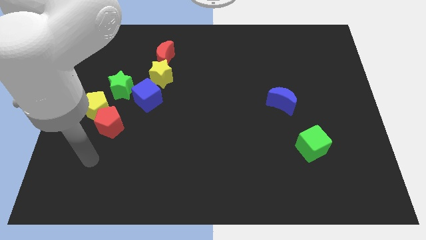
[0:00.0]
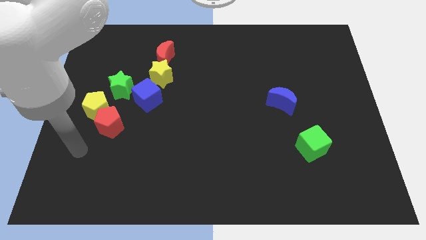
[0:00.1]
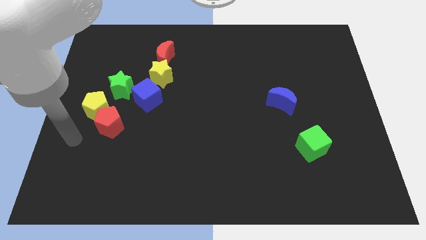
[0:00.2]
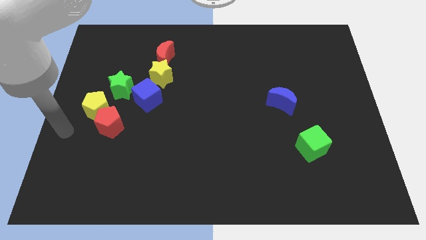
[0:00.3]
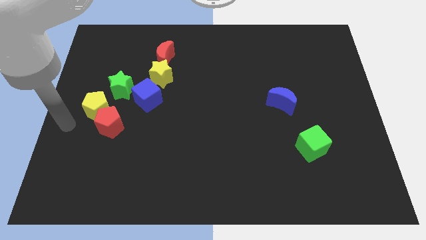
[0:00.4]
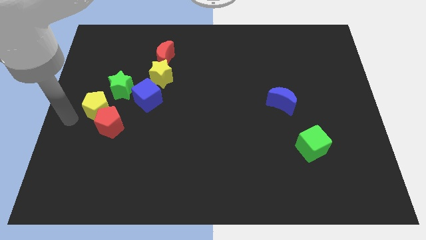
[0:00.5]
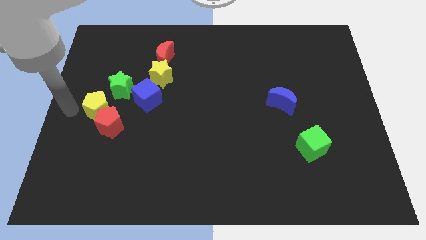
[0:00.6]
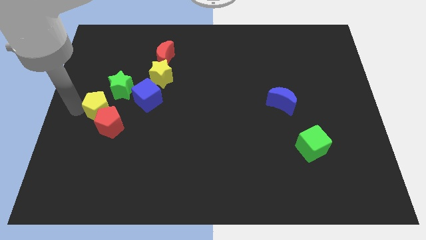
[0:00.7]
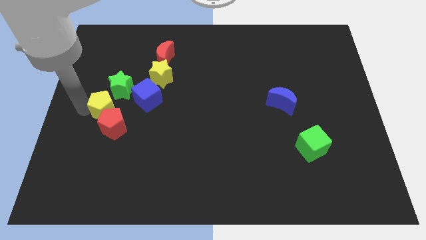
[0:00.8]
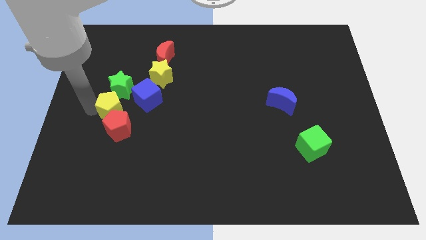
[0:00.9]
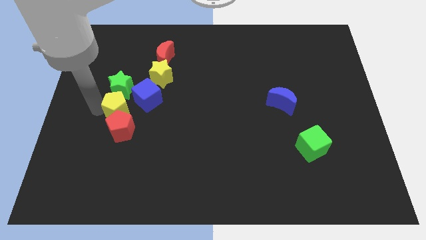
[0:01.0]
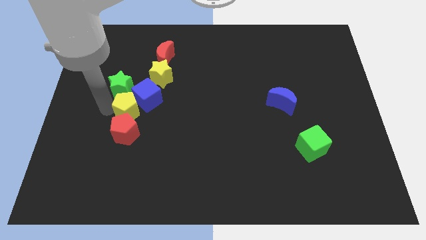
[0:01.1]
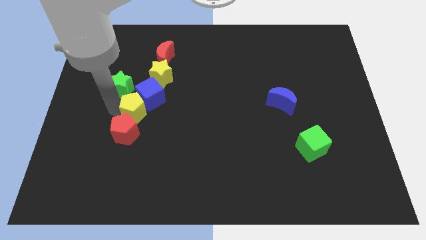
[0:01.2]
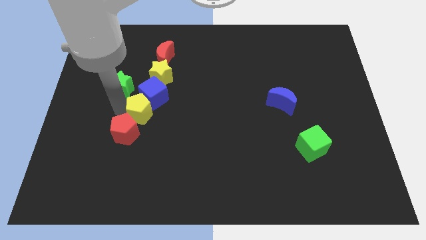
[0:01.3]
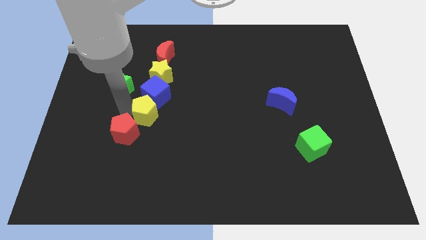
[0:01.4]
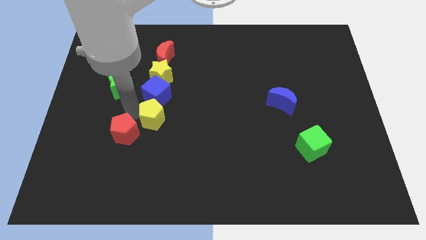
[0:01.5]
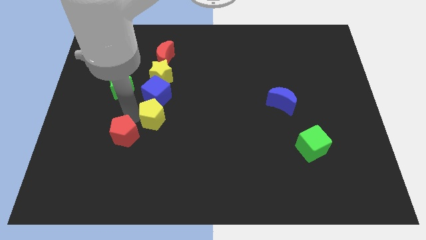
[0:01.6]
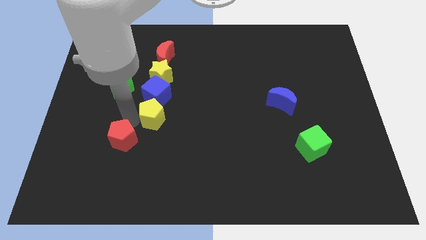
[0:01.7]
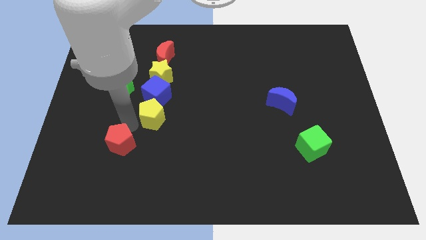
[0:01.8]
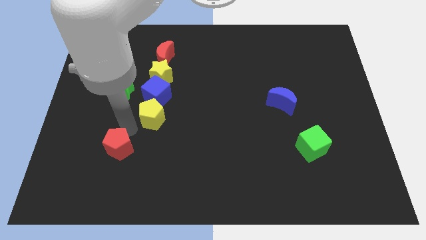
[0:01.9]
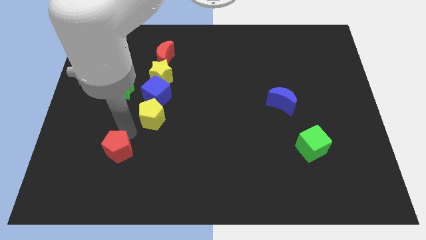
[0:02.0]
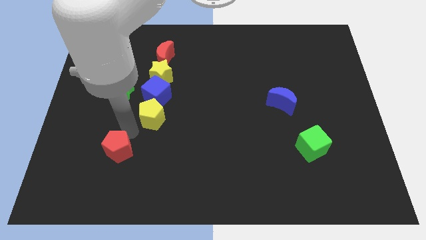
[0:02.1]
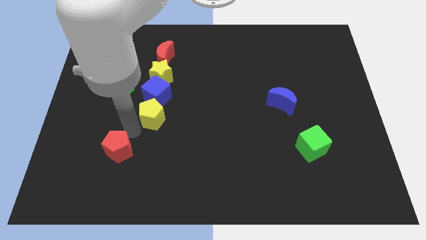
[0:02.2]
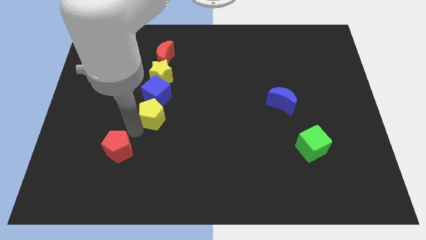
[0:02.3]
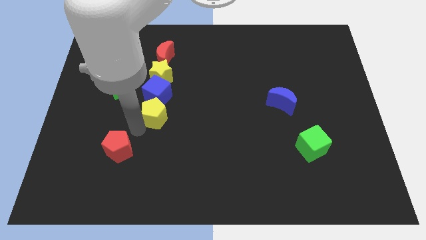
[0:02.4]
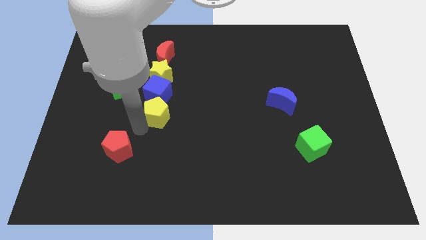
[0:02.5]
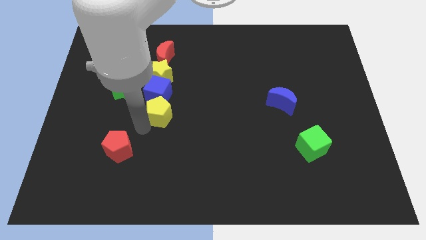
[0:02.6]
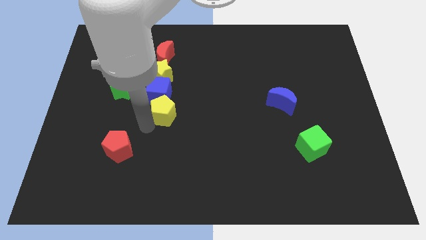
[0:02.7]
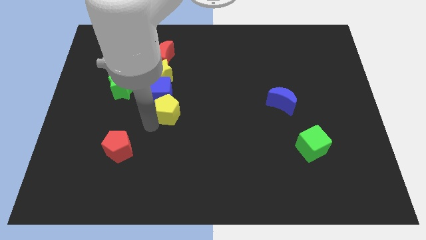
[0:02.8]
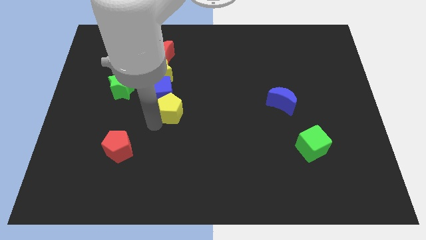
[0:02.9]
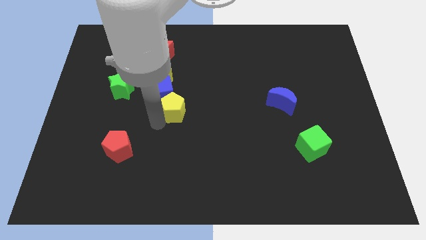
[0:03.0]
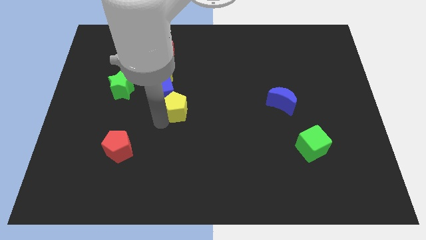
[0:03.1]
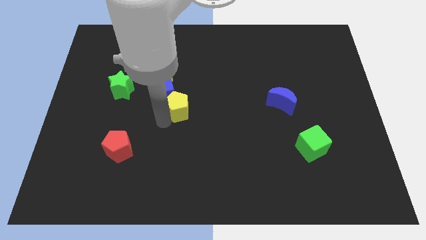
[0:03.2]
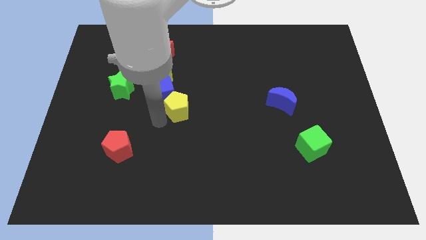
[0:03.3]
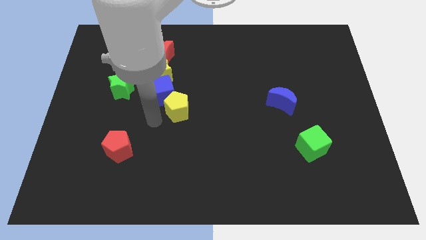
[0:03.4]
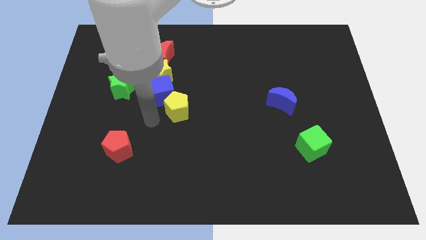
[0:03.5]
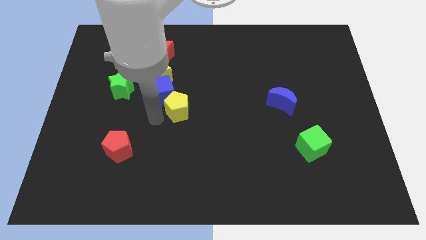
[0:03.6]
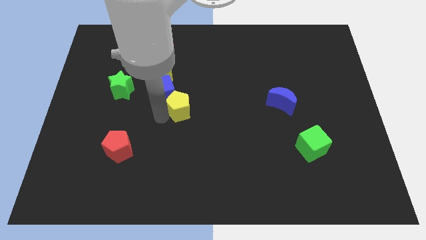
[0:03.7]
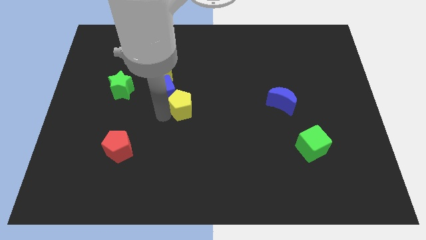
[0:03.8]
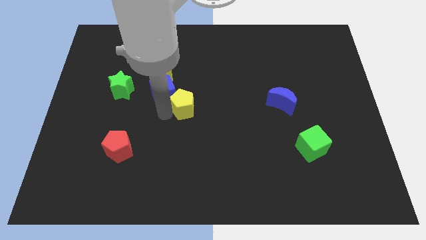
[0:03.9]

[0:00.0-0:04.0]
move the yellow pentagon right

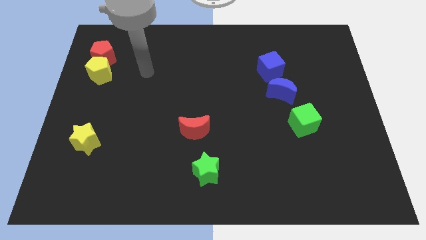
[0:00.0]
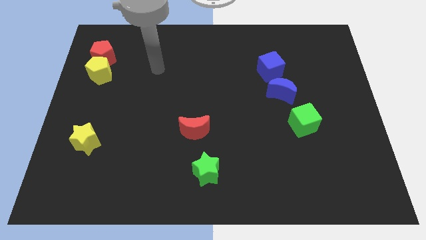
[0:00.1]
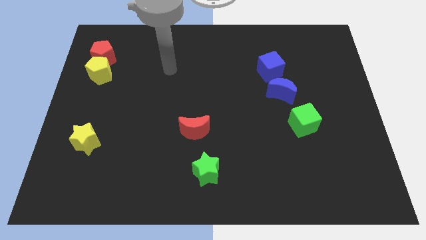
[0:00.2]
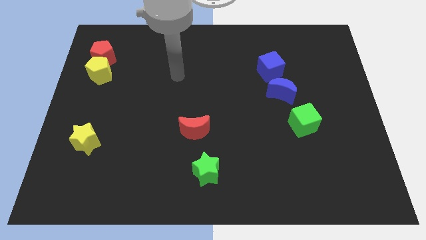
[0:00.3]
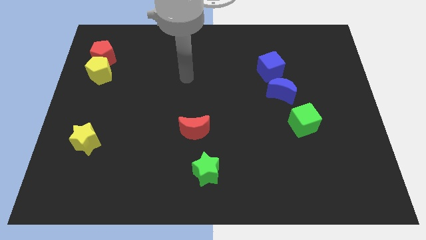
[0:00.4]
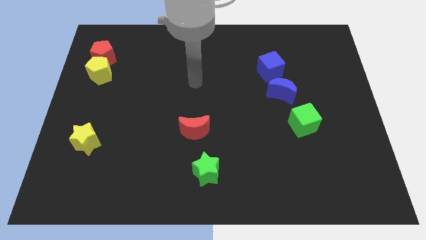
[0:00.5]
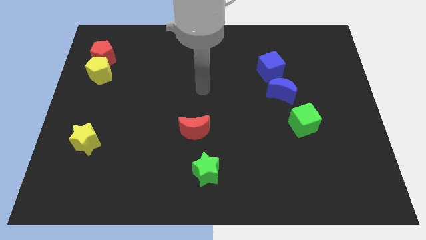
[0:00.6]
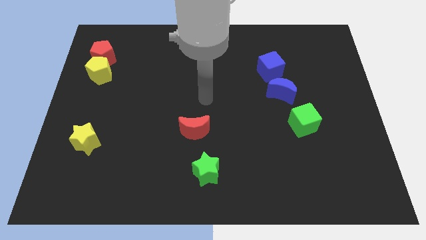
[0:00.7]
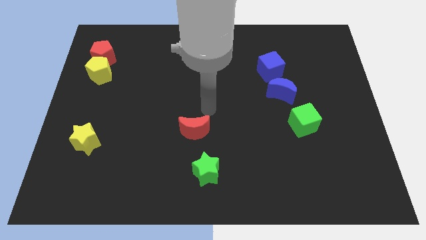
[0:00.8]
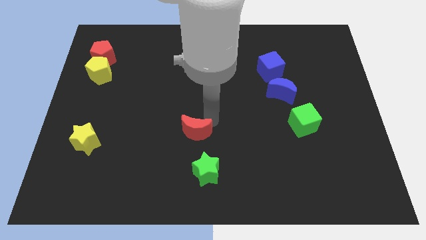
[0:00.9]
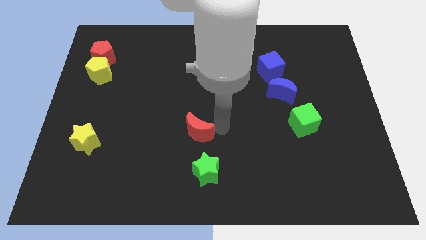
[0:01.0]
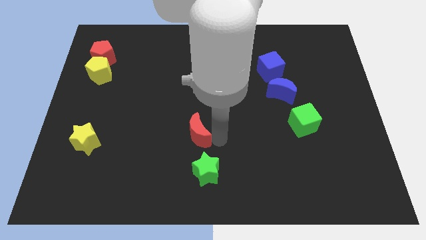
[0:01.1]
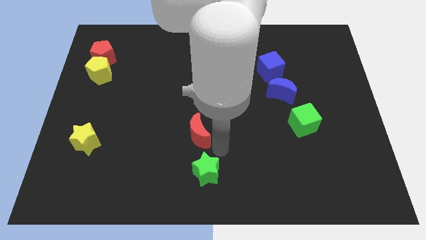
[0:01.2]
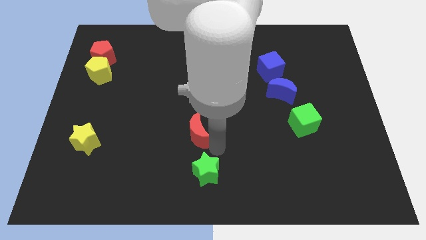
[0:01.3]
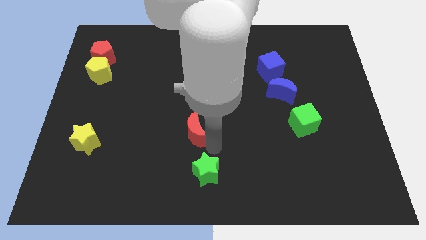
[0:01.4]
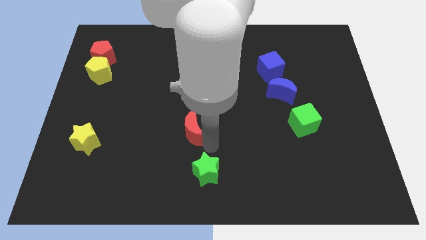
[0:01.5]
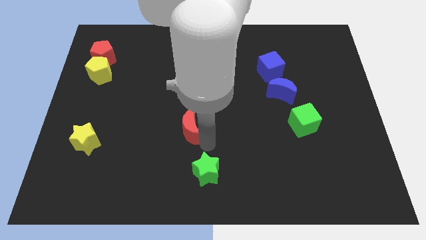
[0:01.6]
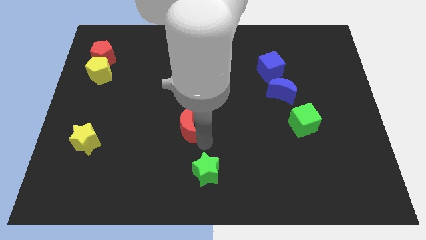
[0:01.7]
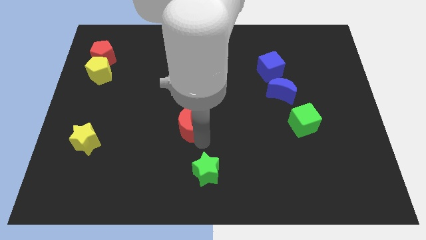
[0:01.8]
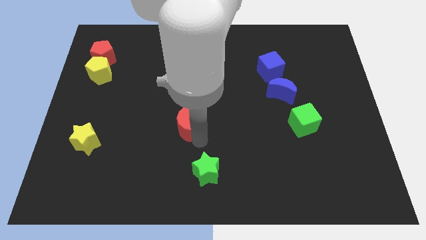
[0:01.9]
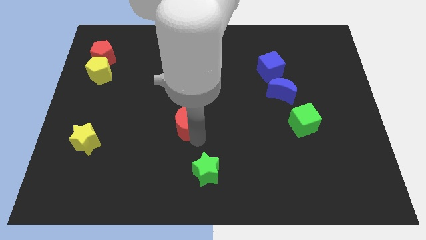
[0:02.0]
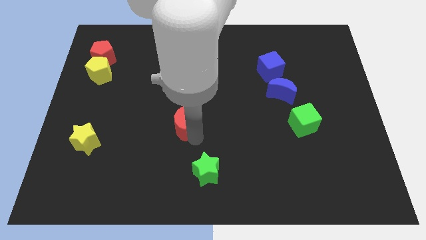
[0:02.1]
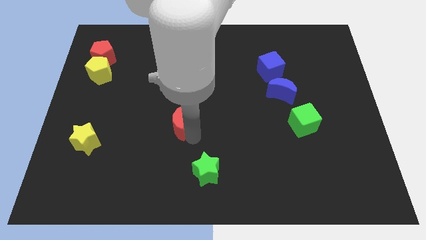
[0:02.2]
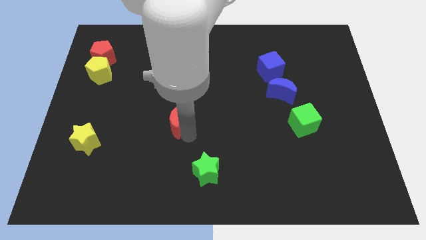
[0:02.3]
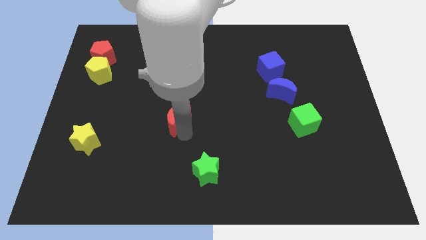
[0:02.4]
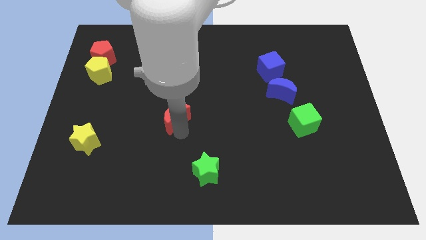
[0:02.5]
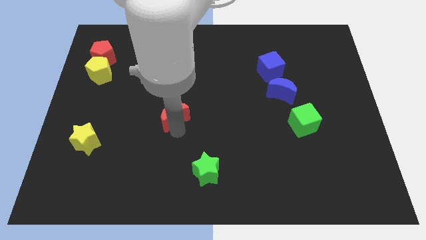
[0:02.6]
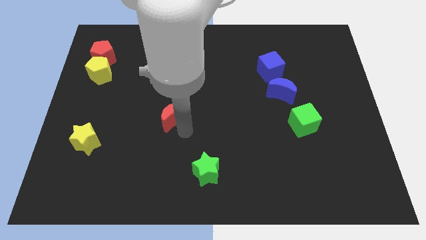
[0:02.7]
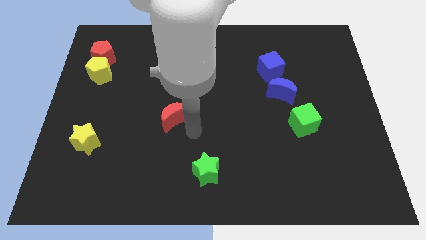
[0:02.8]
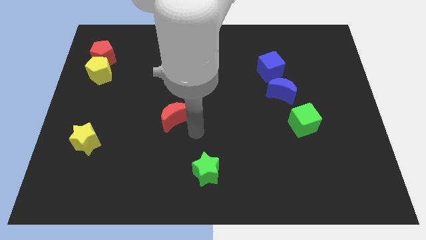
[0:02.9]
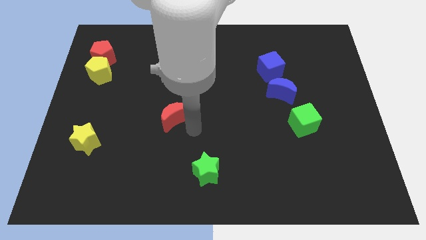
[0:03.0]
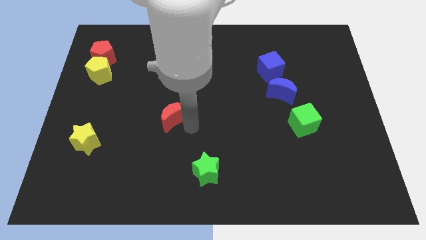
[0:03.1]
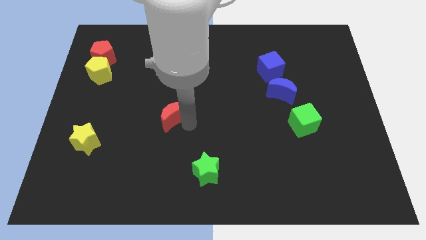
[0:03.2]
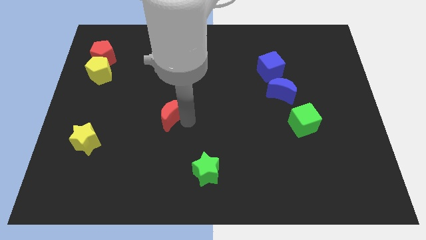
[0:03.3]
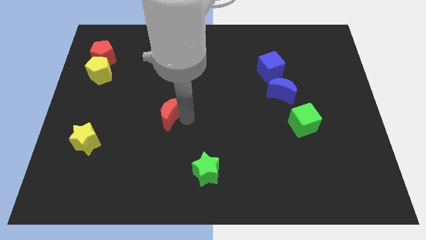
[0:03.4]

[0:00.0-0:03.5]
slide the red moon up and left diagonally a bit

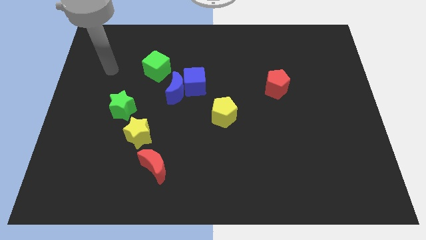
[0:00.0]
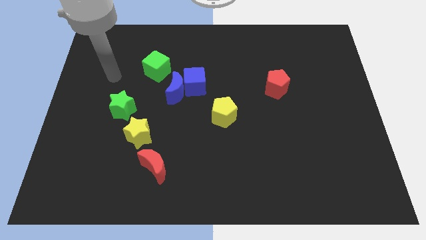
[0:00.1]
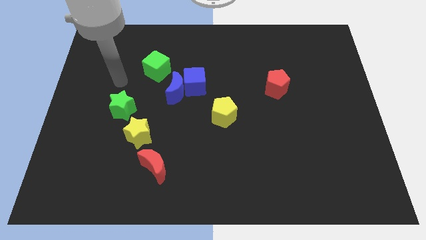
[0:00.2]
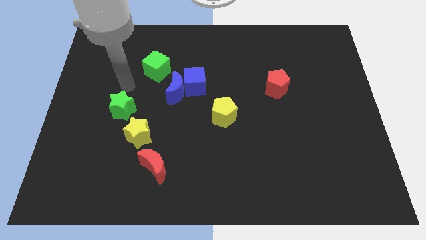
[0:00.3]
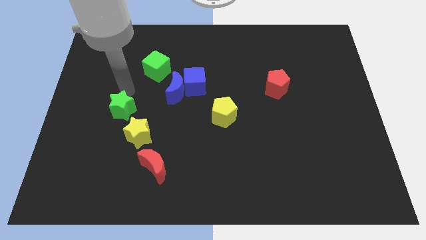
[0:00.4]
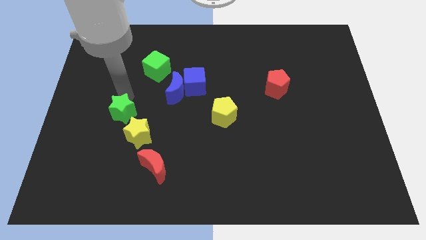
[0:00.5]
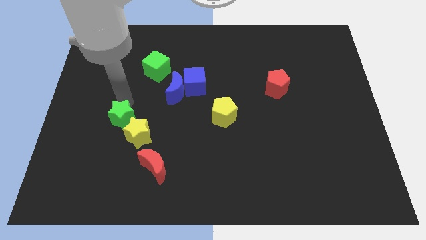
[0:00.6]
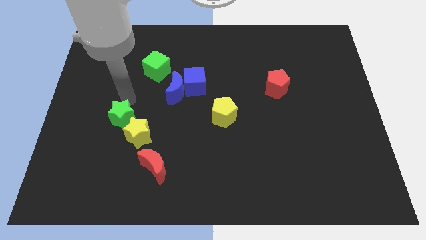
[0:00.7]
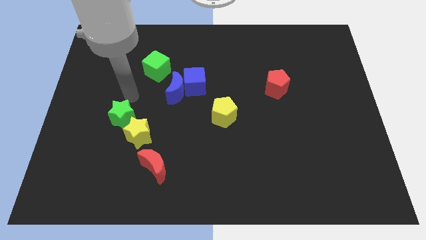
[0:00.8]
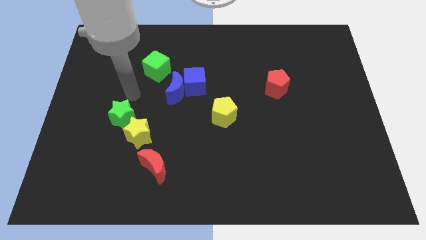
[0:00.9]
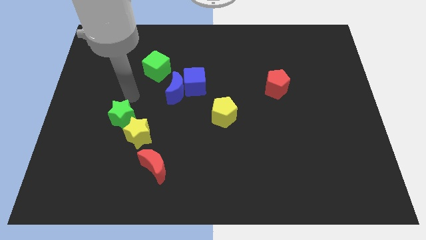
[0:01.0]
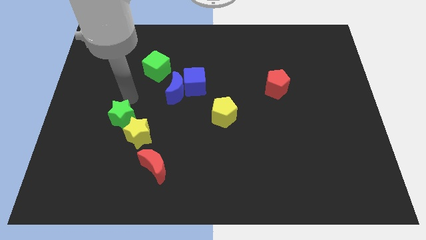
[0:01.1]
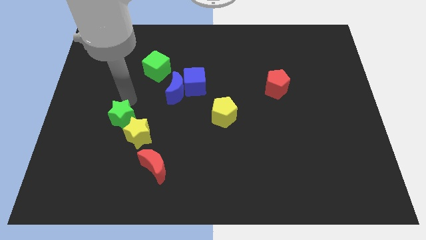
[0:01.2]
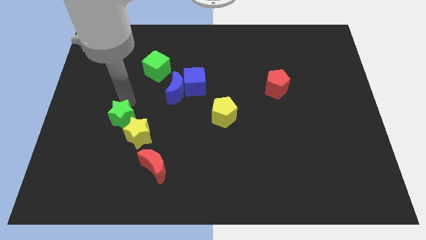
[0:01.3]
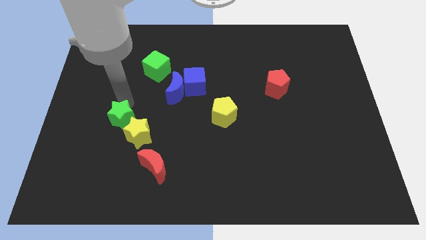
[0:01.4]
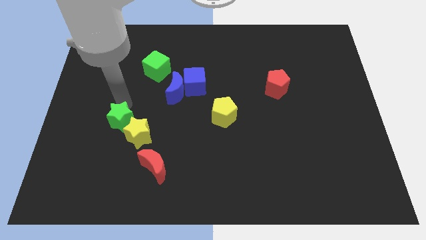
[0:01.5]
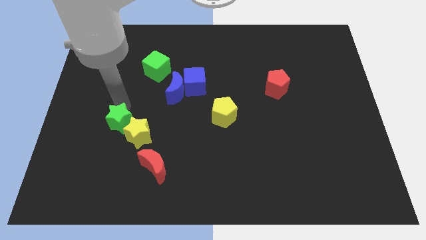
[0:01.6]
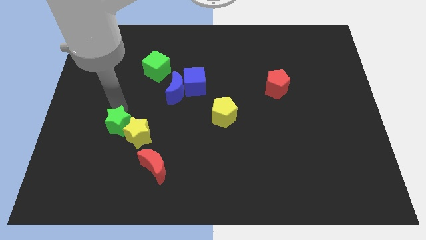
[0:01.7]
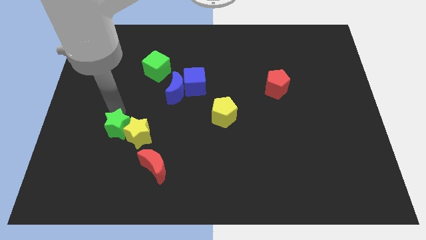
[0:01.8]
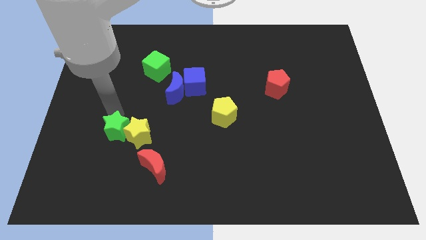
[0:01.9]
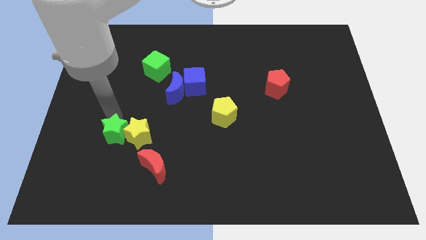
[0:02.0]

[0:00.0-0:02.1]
push the green star a bit downwards
